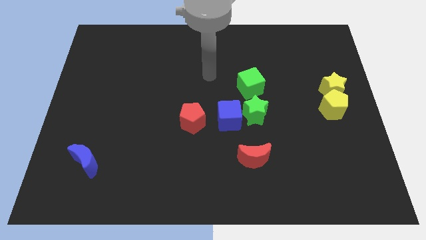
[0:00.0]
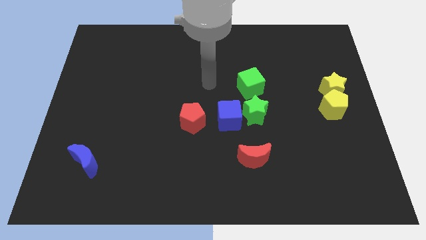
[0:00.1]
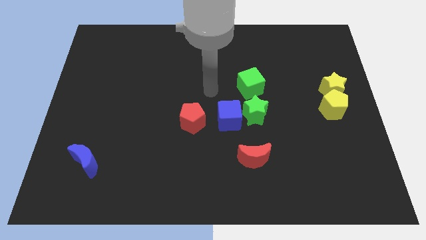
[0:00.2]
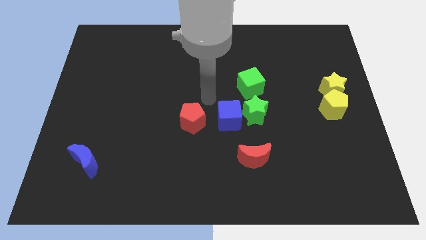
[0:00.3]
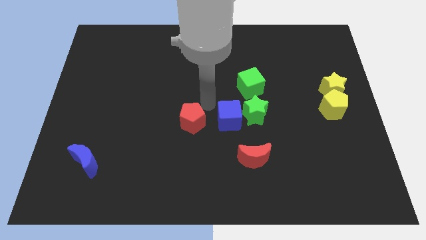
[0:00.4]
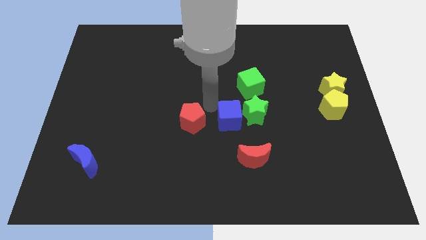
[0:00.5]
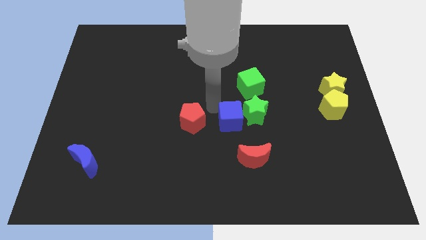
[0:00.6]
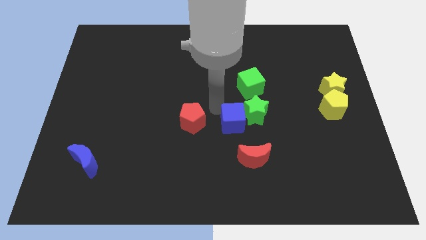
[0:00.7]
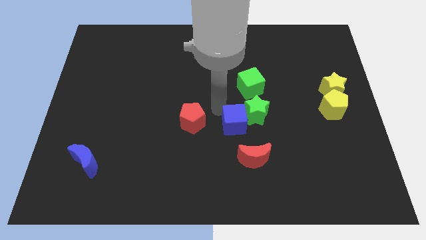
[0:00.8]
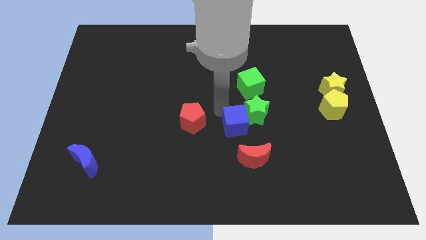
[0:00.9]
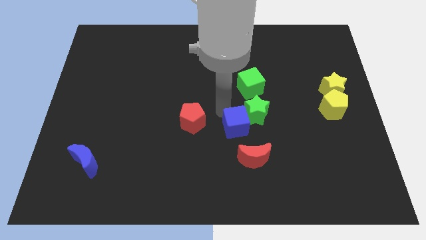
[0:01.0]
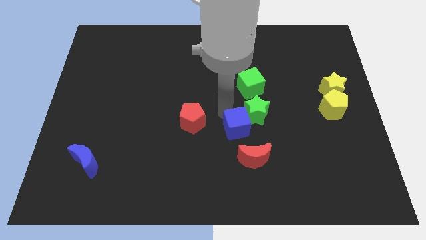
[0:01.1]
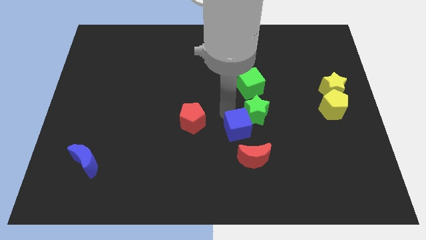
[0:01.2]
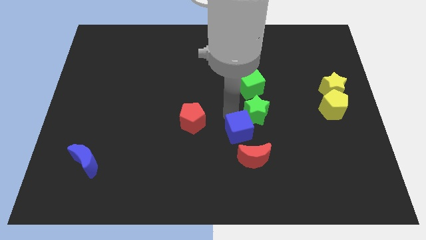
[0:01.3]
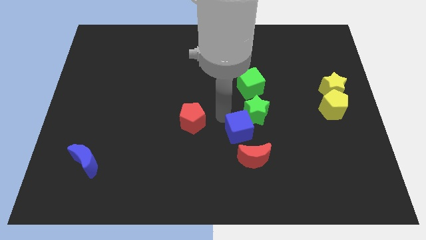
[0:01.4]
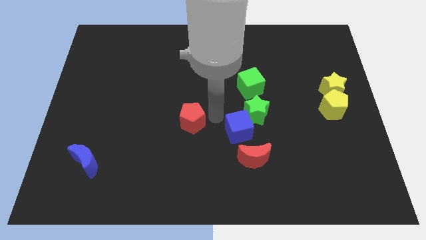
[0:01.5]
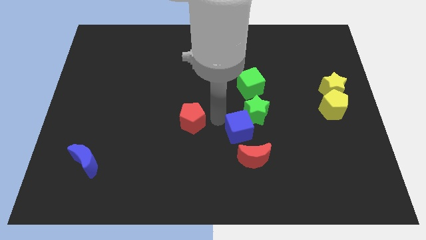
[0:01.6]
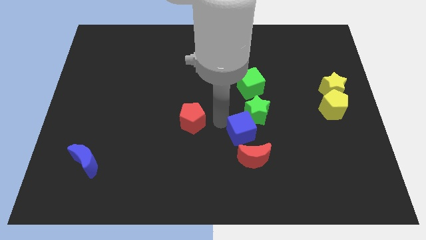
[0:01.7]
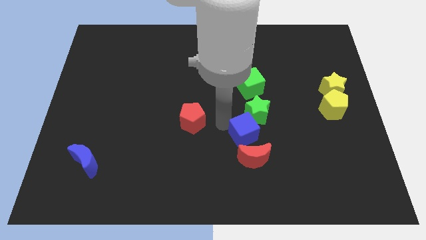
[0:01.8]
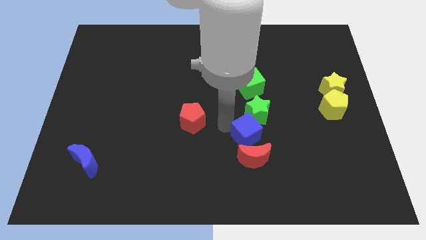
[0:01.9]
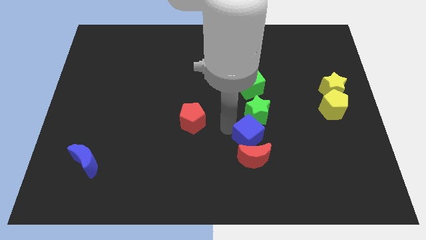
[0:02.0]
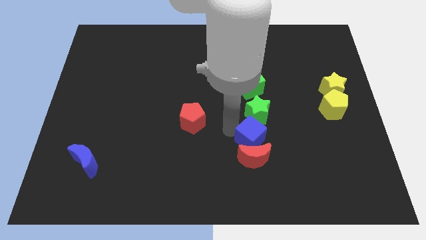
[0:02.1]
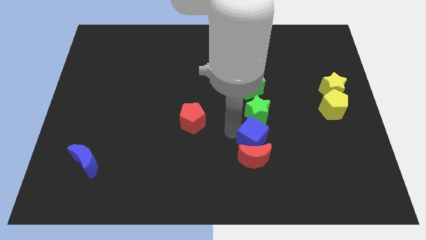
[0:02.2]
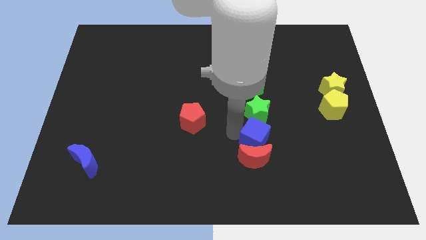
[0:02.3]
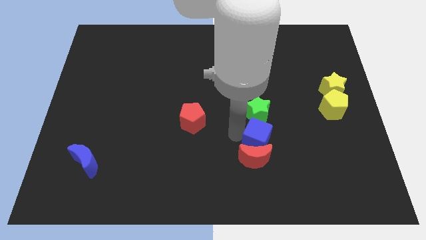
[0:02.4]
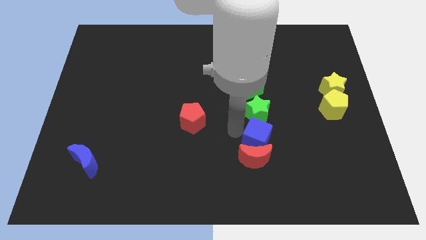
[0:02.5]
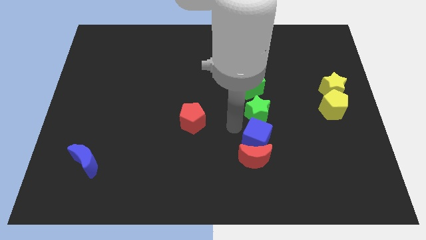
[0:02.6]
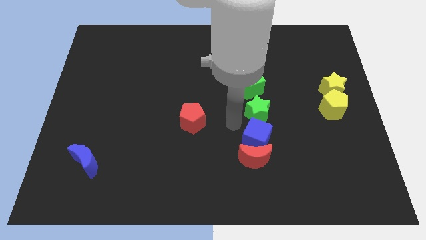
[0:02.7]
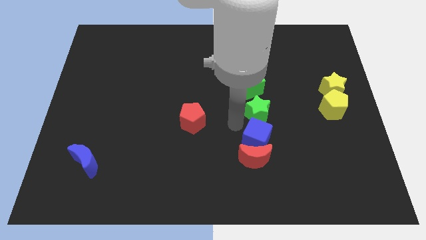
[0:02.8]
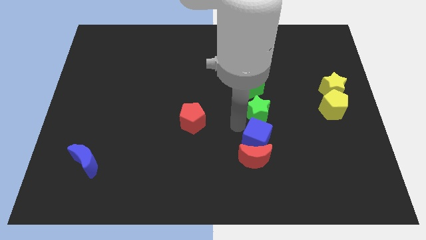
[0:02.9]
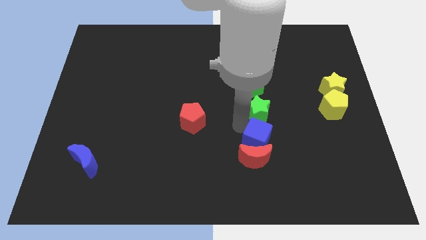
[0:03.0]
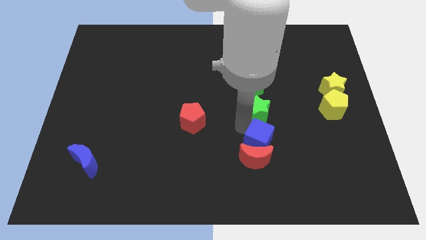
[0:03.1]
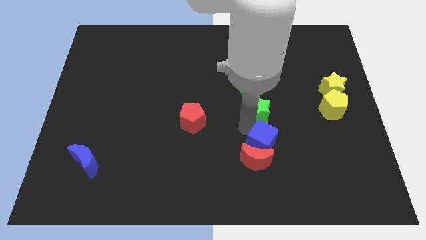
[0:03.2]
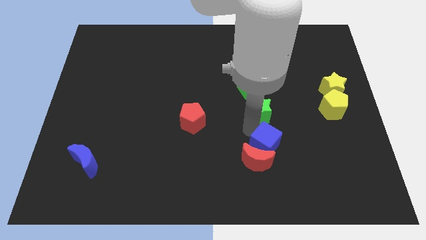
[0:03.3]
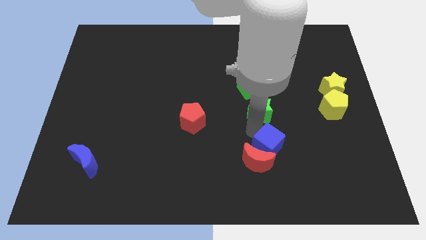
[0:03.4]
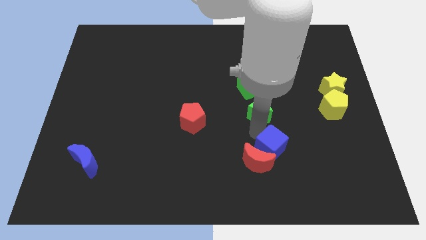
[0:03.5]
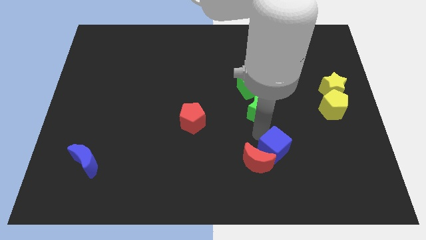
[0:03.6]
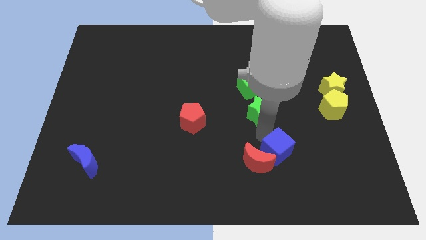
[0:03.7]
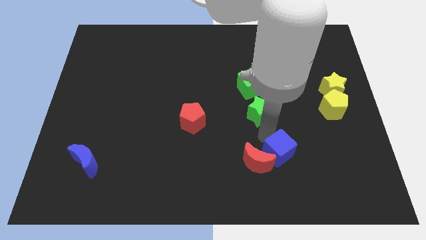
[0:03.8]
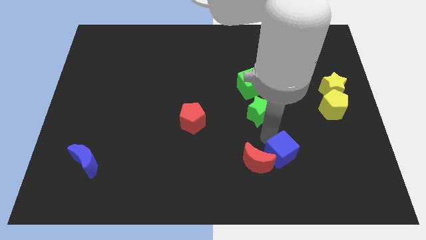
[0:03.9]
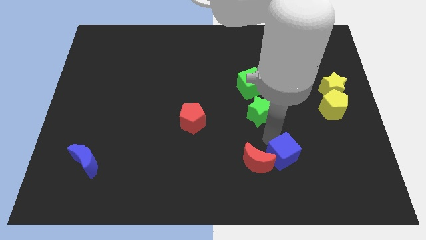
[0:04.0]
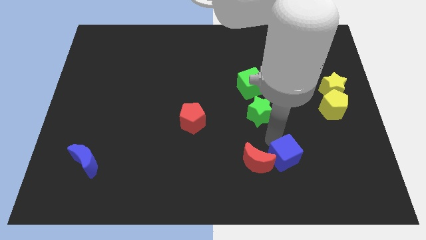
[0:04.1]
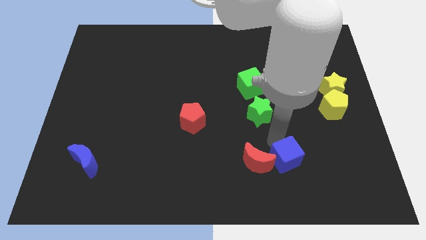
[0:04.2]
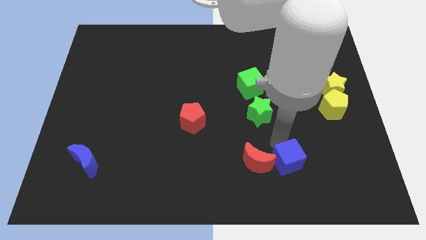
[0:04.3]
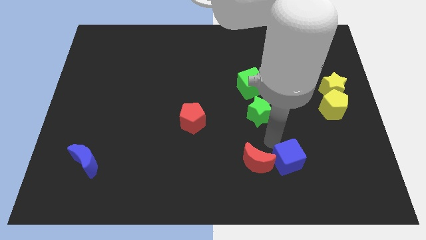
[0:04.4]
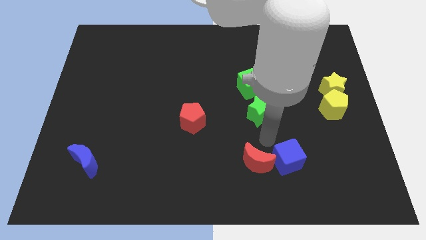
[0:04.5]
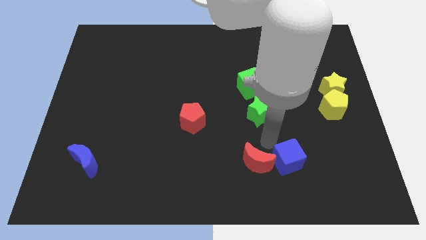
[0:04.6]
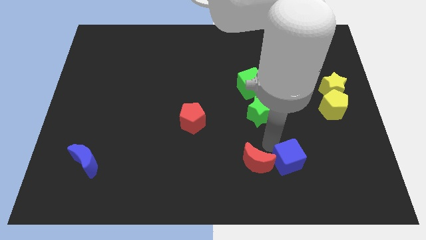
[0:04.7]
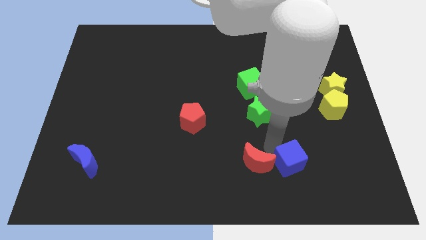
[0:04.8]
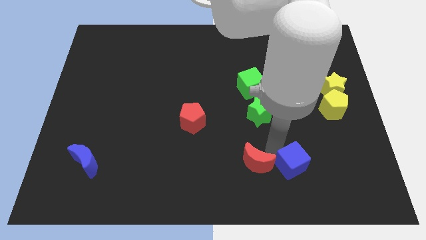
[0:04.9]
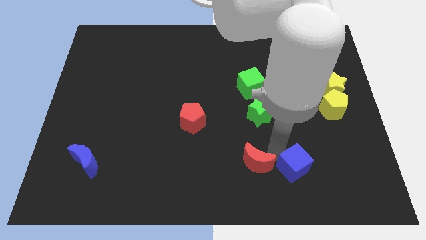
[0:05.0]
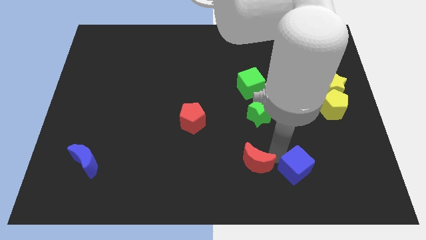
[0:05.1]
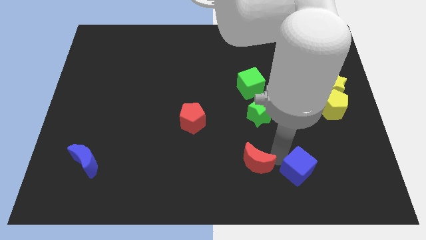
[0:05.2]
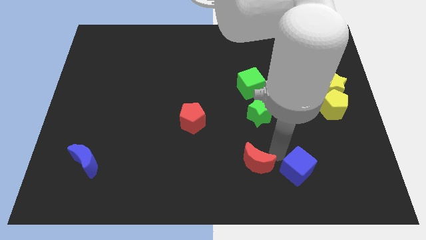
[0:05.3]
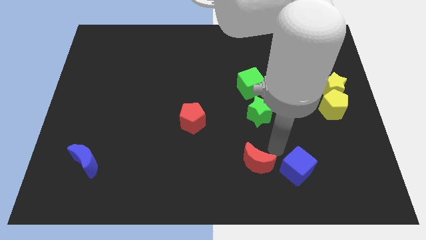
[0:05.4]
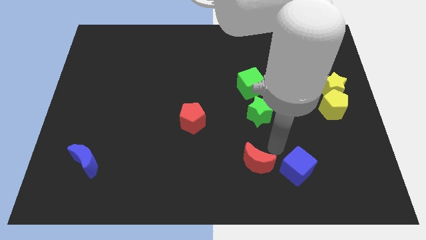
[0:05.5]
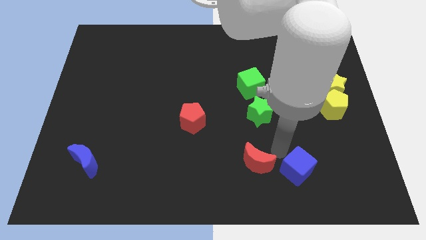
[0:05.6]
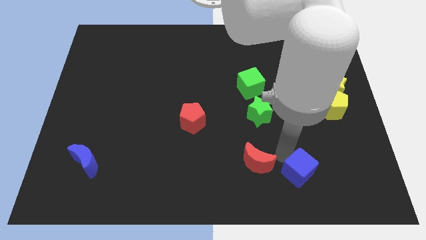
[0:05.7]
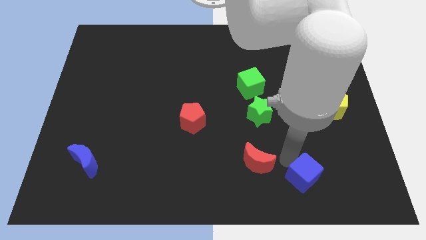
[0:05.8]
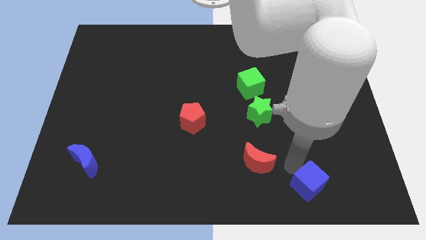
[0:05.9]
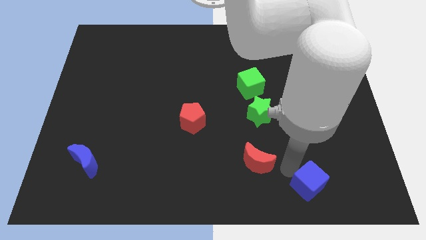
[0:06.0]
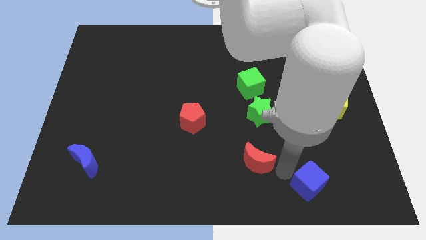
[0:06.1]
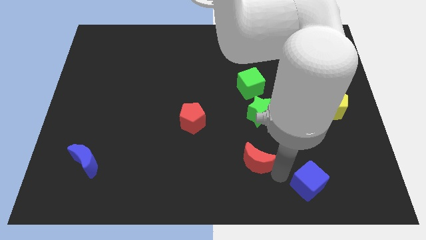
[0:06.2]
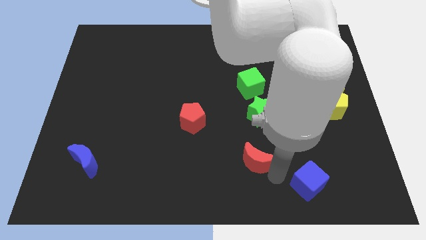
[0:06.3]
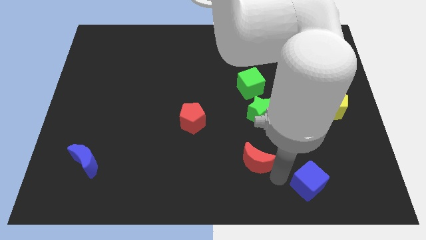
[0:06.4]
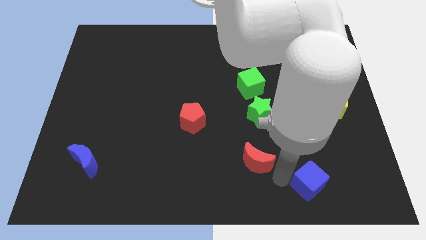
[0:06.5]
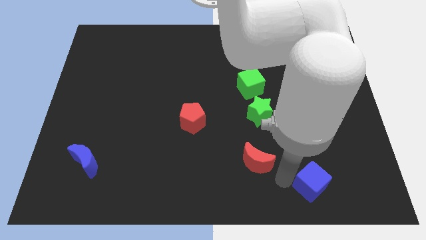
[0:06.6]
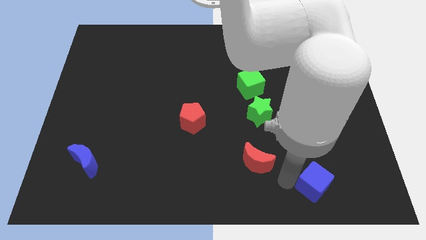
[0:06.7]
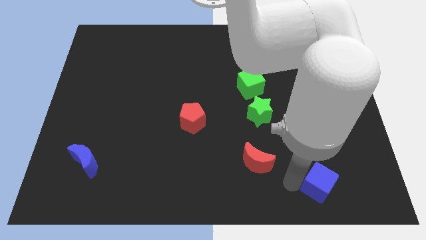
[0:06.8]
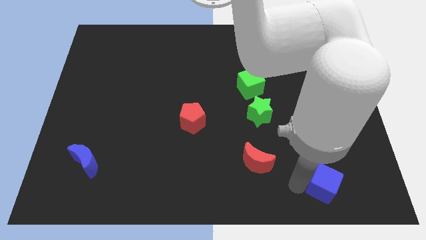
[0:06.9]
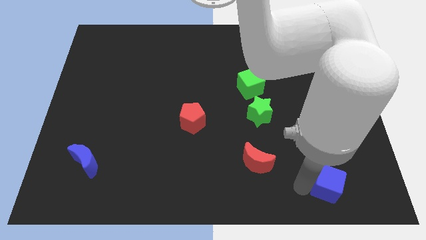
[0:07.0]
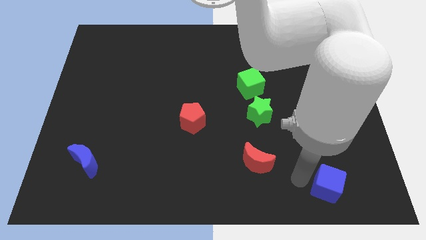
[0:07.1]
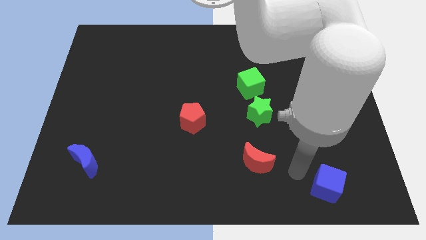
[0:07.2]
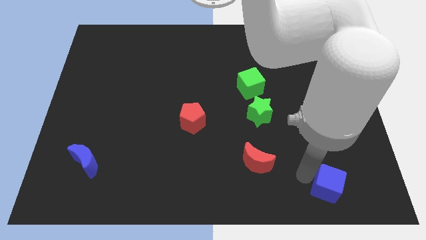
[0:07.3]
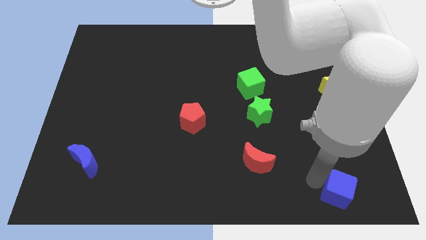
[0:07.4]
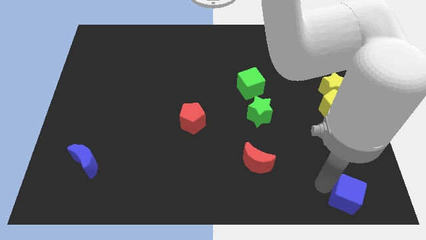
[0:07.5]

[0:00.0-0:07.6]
push the blue cube to the lower right corner
